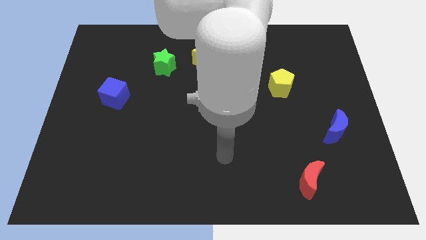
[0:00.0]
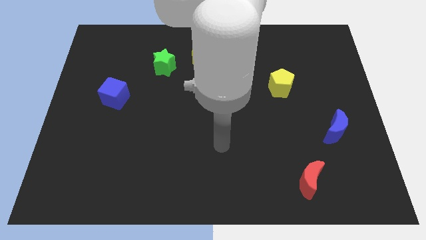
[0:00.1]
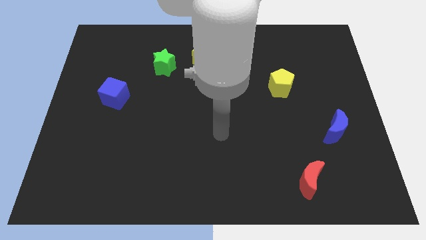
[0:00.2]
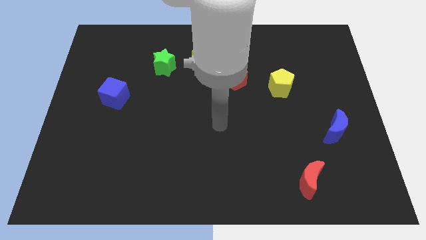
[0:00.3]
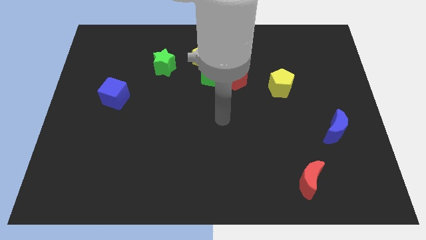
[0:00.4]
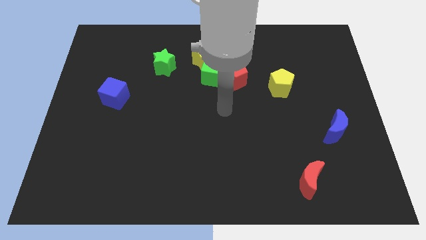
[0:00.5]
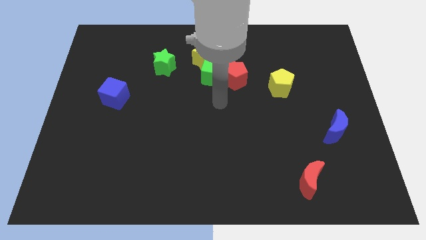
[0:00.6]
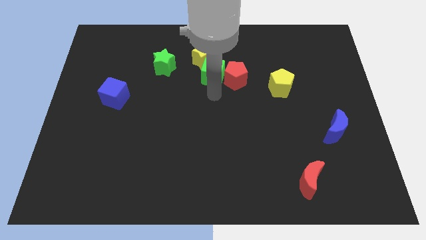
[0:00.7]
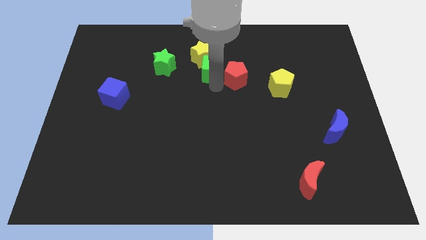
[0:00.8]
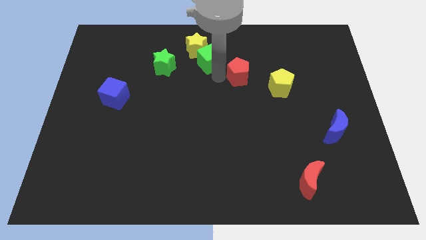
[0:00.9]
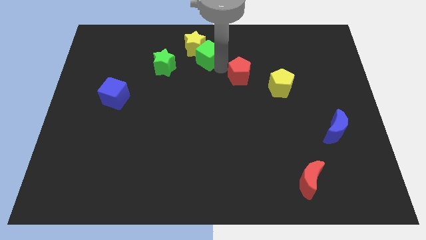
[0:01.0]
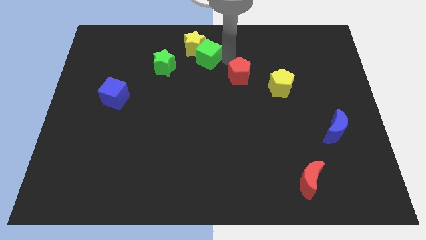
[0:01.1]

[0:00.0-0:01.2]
pull the red pentagon apart from the green cube

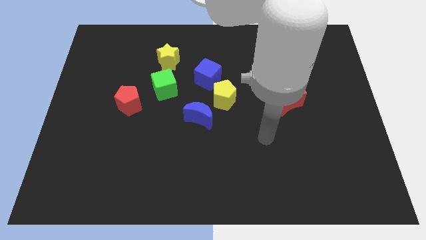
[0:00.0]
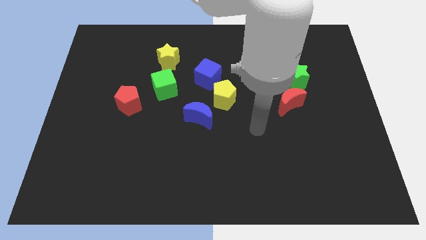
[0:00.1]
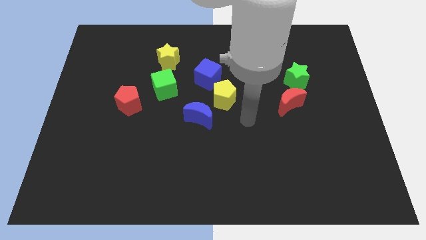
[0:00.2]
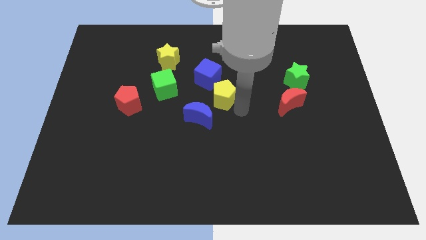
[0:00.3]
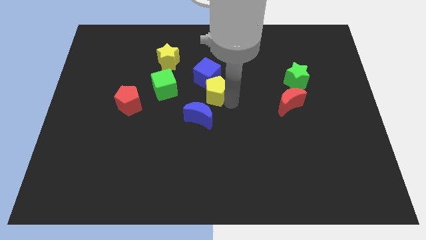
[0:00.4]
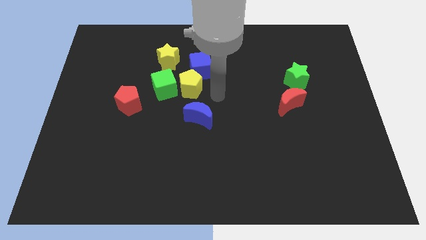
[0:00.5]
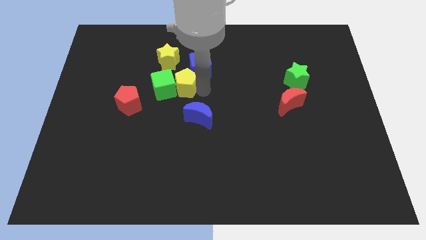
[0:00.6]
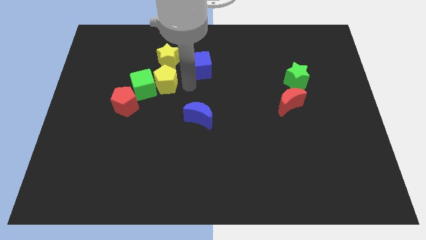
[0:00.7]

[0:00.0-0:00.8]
separate the blue cube from the yellow pentagon

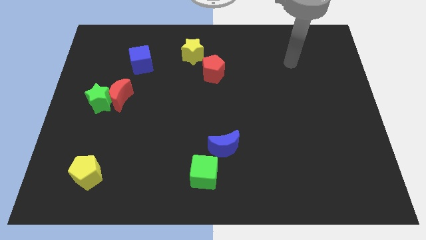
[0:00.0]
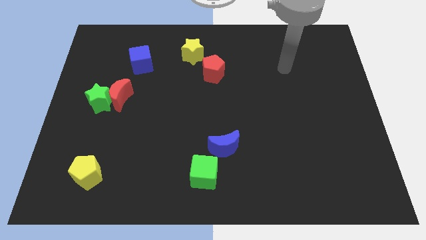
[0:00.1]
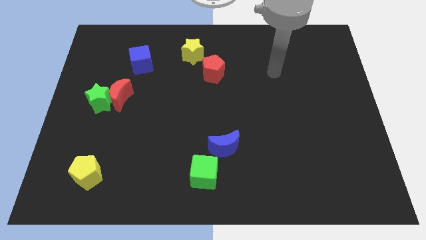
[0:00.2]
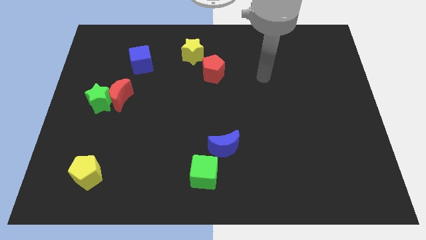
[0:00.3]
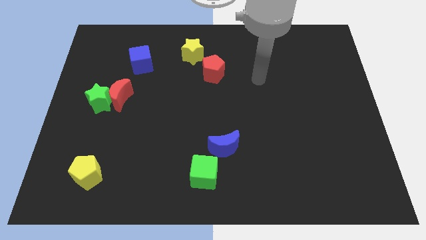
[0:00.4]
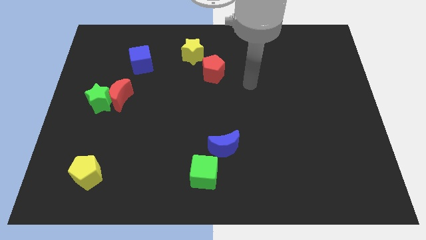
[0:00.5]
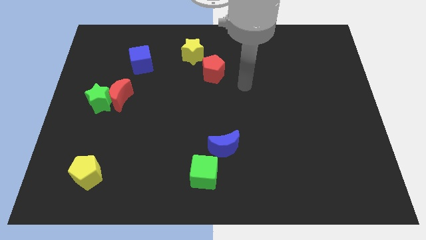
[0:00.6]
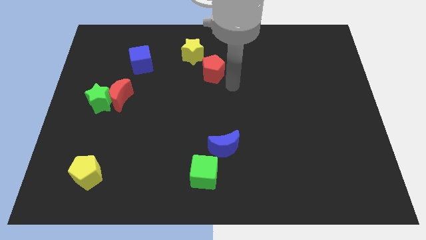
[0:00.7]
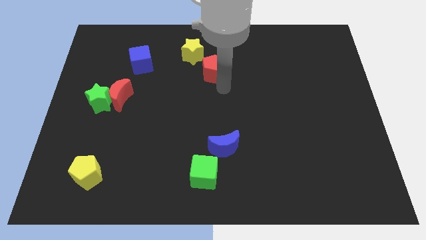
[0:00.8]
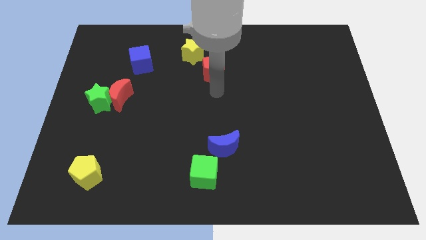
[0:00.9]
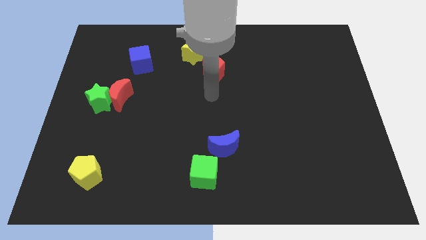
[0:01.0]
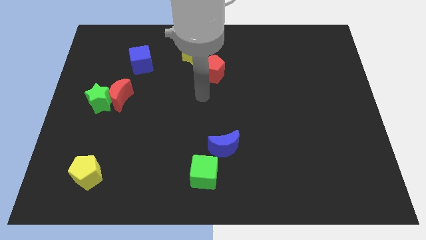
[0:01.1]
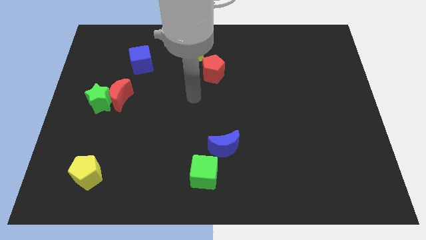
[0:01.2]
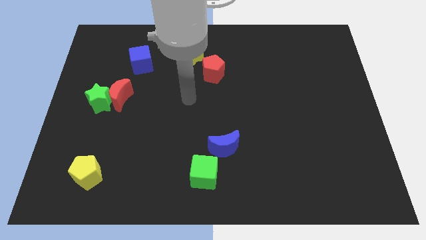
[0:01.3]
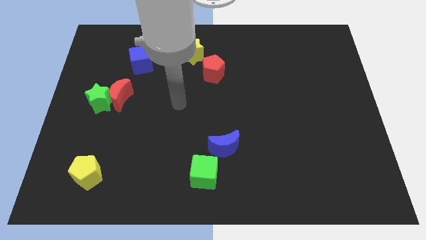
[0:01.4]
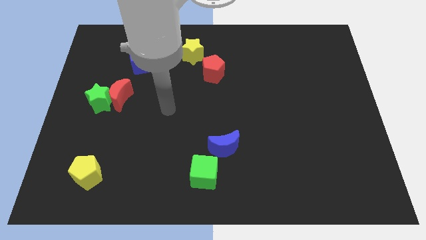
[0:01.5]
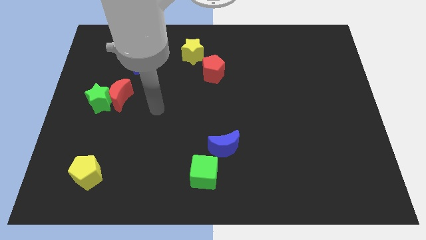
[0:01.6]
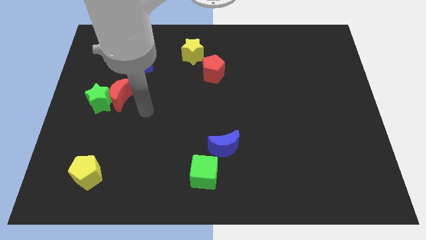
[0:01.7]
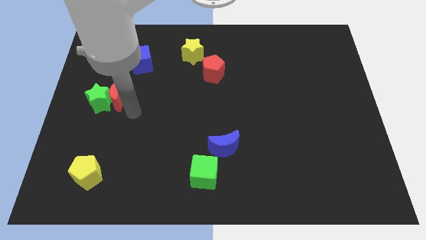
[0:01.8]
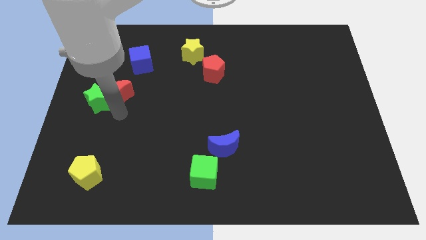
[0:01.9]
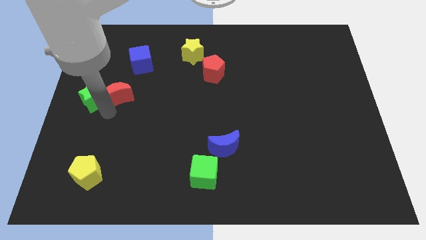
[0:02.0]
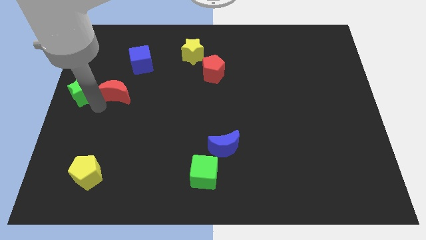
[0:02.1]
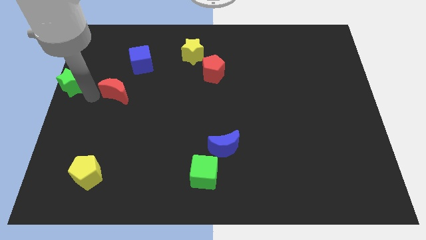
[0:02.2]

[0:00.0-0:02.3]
separate the red moon from the green star

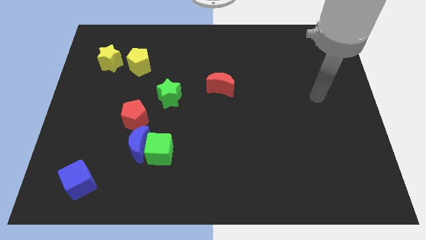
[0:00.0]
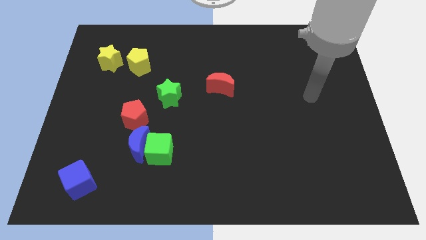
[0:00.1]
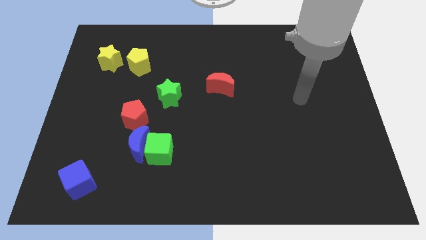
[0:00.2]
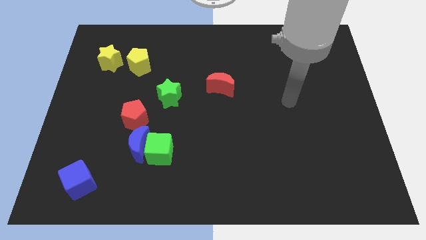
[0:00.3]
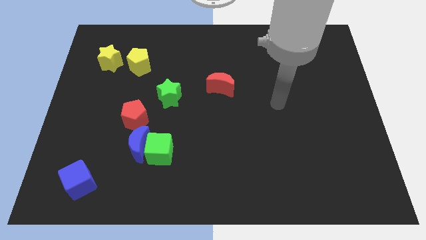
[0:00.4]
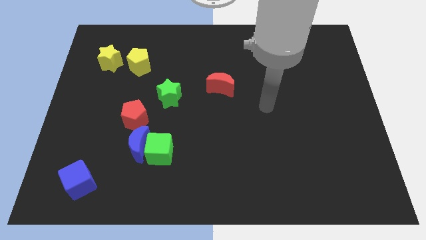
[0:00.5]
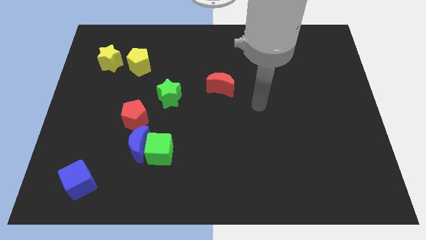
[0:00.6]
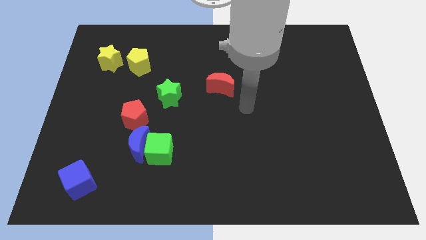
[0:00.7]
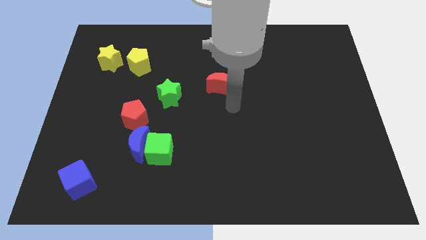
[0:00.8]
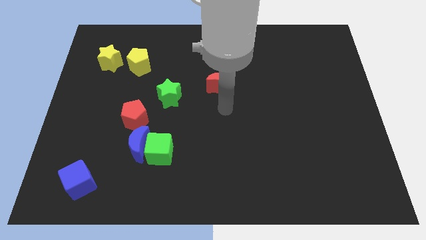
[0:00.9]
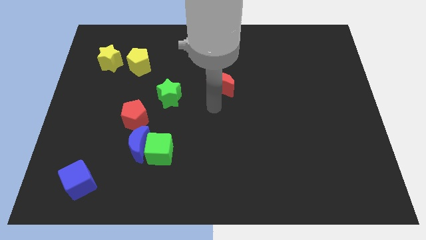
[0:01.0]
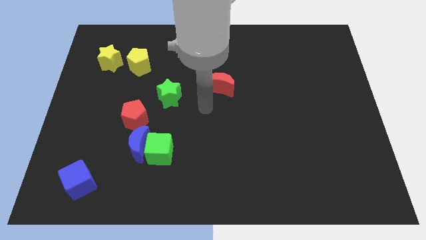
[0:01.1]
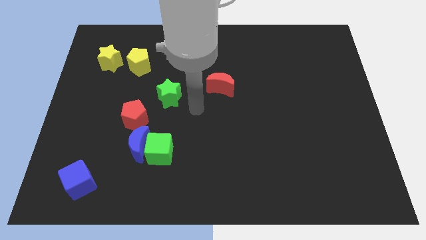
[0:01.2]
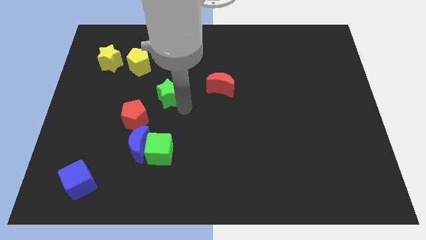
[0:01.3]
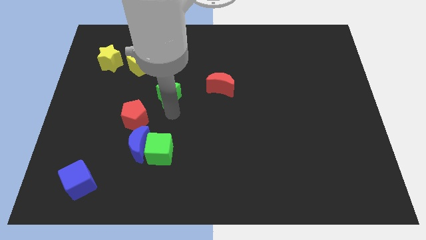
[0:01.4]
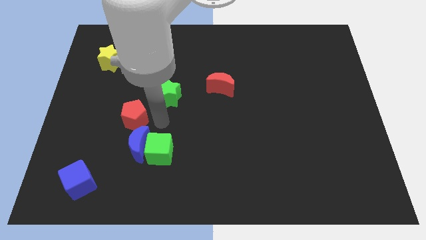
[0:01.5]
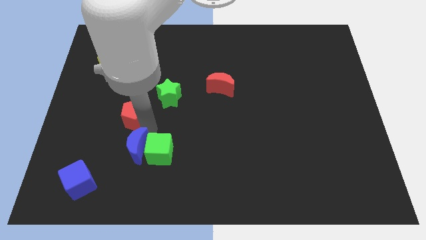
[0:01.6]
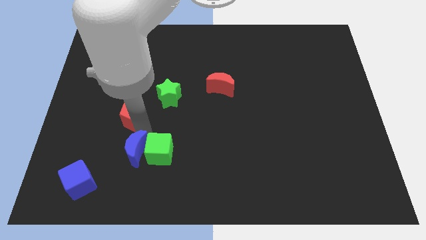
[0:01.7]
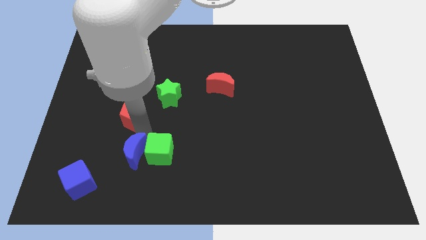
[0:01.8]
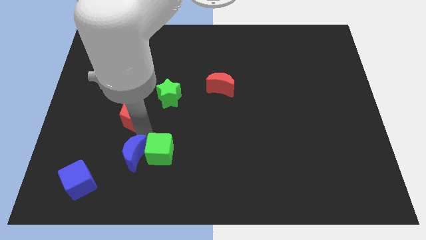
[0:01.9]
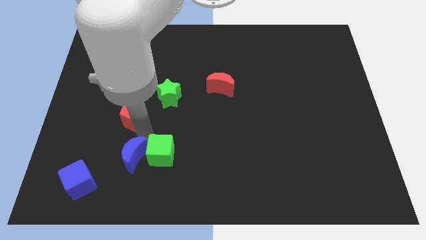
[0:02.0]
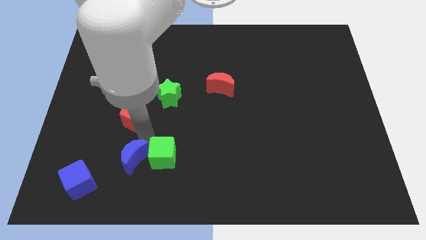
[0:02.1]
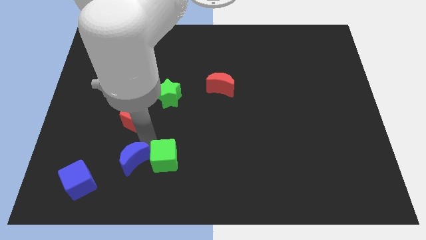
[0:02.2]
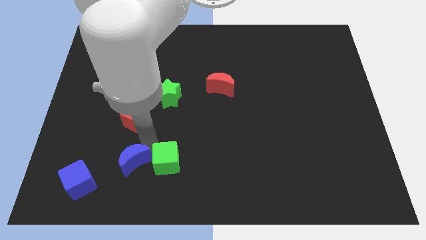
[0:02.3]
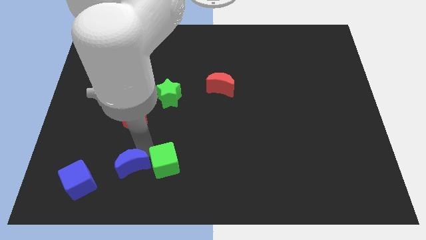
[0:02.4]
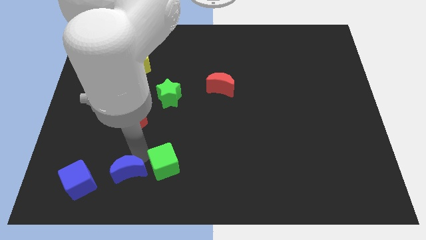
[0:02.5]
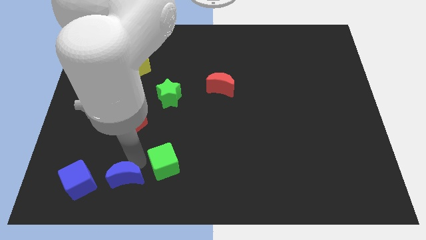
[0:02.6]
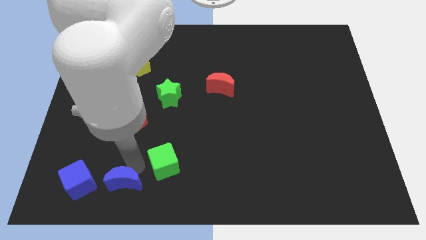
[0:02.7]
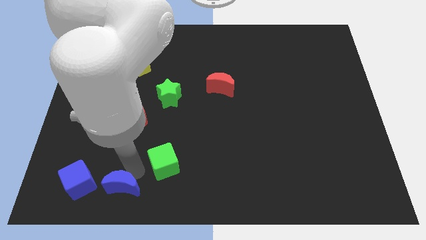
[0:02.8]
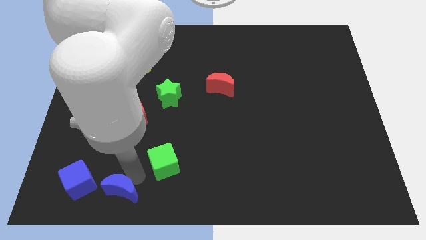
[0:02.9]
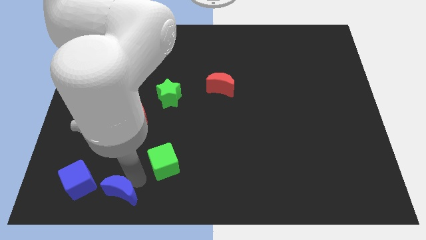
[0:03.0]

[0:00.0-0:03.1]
move the green cube away from the blue moon

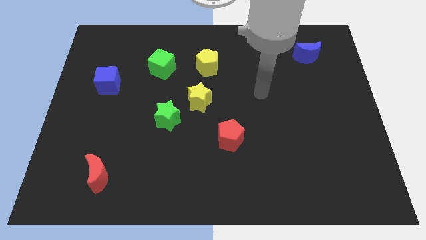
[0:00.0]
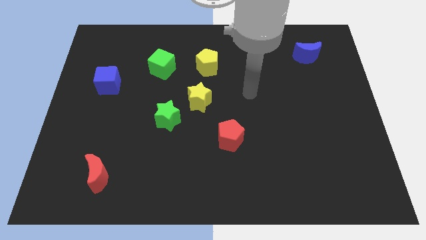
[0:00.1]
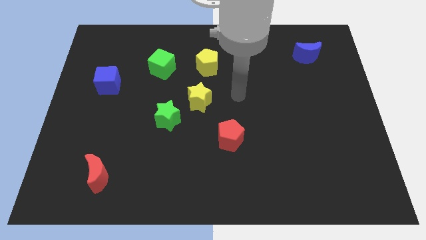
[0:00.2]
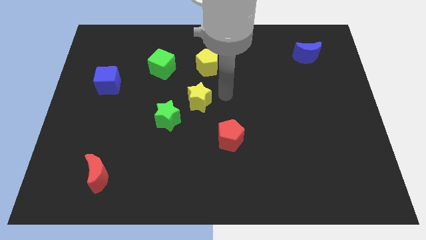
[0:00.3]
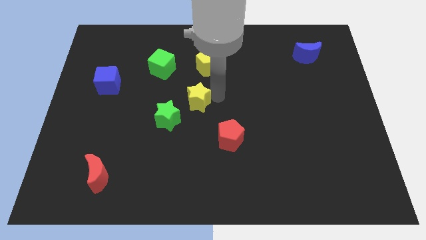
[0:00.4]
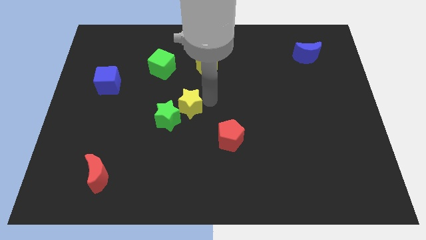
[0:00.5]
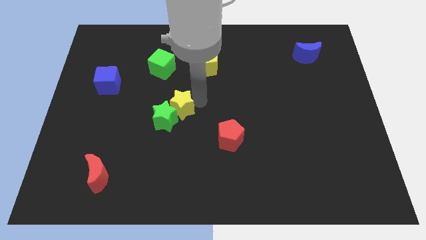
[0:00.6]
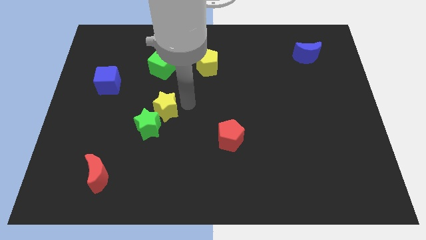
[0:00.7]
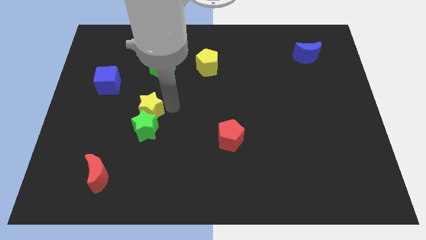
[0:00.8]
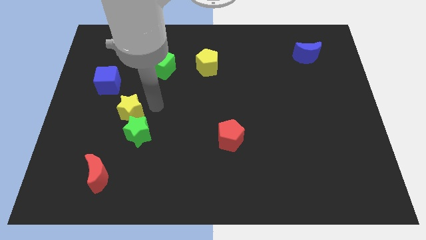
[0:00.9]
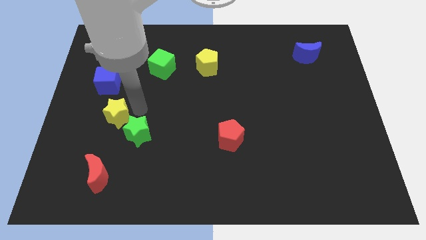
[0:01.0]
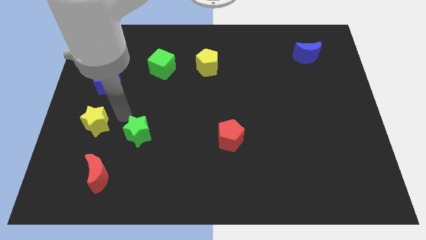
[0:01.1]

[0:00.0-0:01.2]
separate the green star from the yellow star

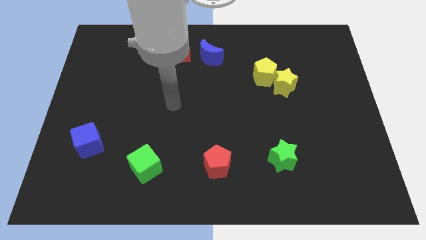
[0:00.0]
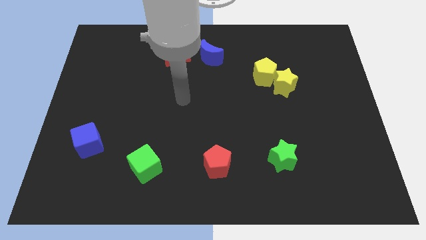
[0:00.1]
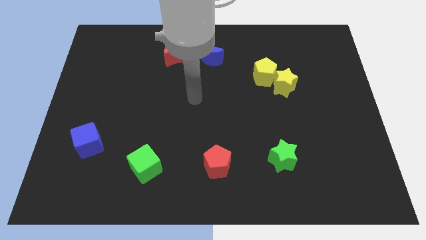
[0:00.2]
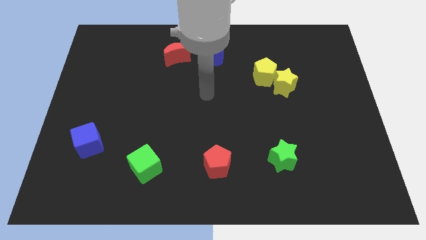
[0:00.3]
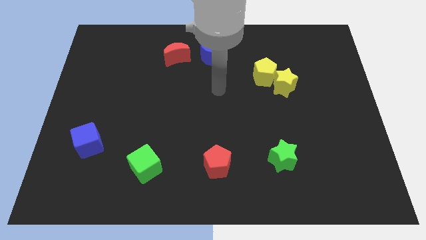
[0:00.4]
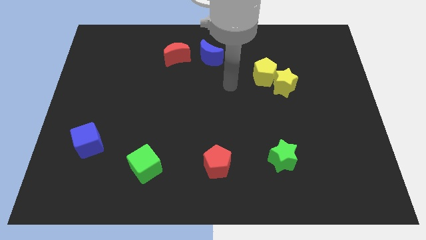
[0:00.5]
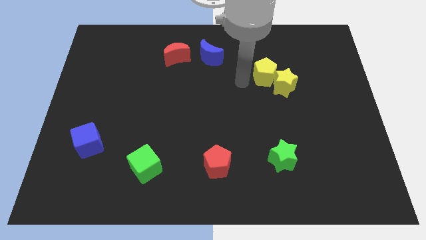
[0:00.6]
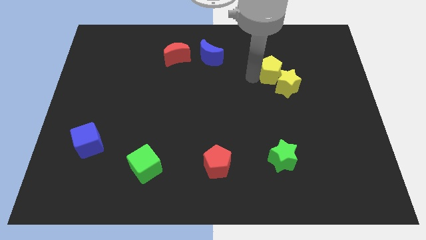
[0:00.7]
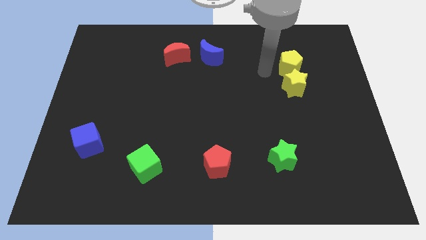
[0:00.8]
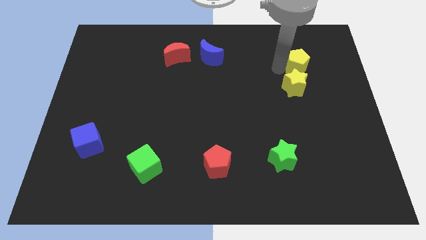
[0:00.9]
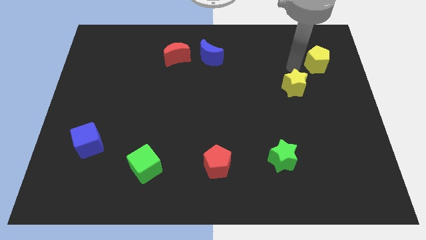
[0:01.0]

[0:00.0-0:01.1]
separate the yellow star from the yellow pentagon
